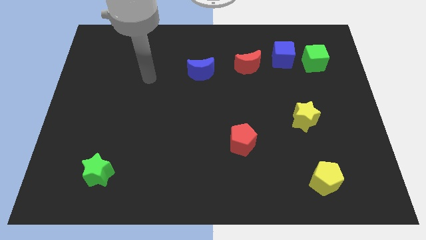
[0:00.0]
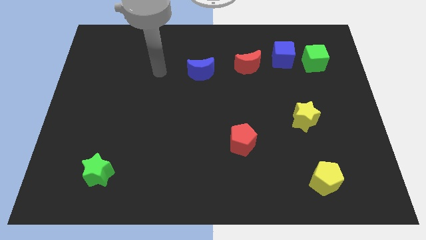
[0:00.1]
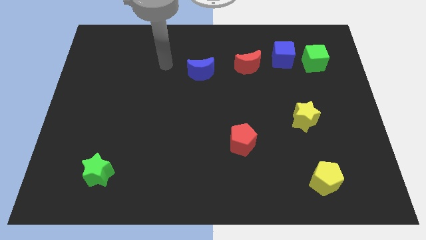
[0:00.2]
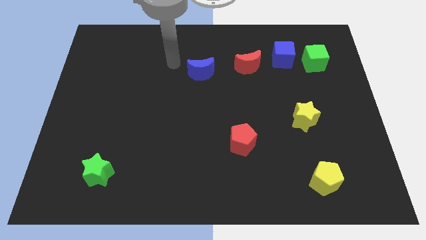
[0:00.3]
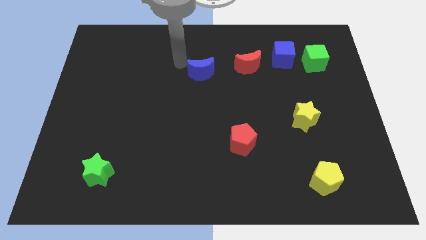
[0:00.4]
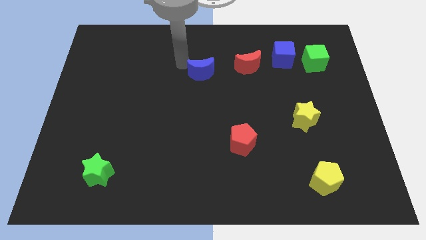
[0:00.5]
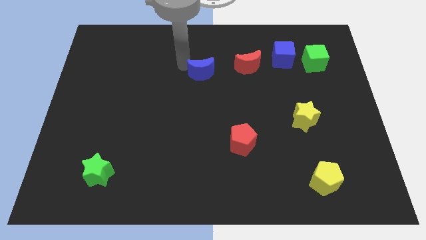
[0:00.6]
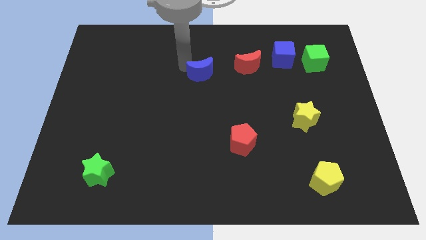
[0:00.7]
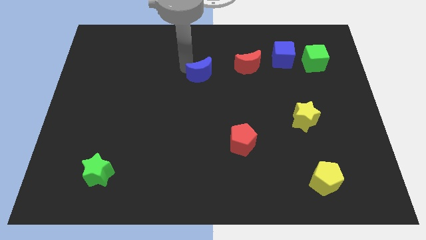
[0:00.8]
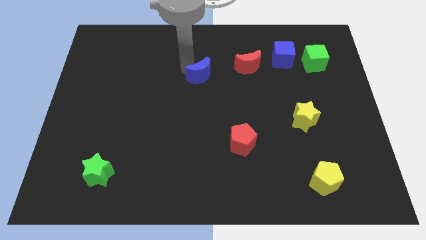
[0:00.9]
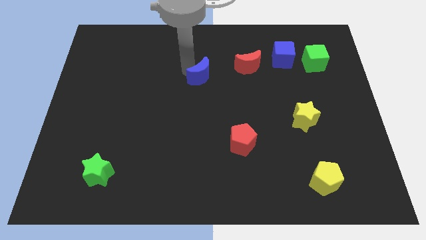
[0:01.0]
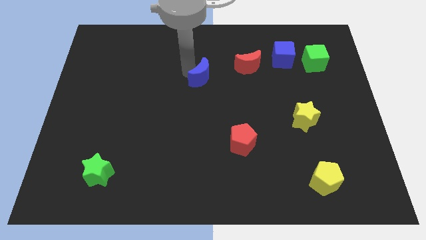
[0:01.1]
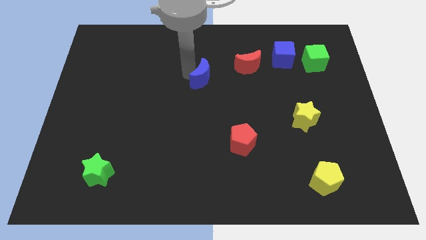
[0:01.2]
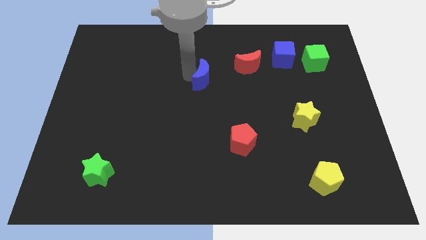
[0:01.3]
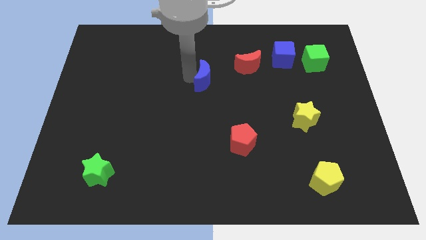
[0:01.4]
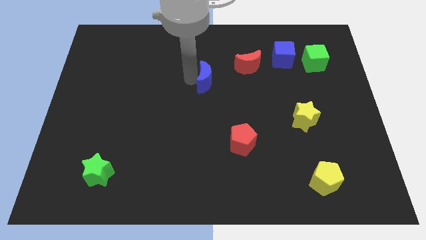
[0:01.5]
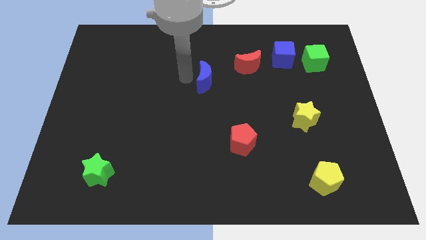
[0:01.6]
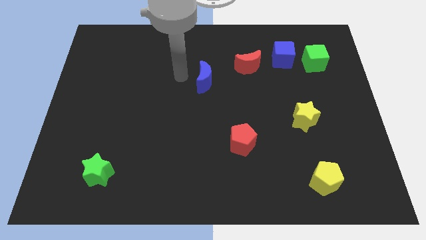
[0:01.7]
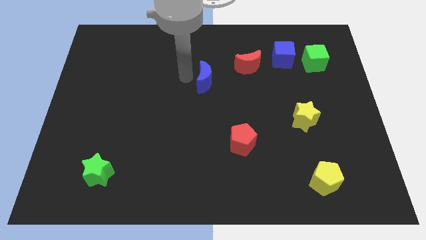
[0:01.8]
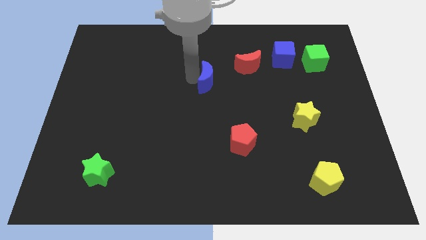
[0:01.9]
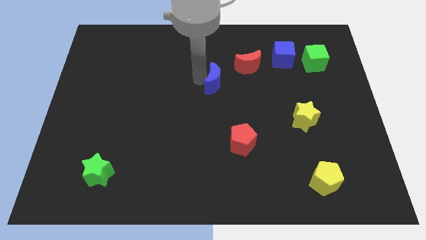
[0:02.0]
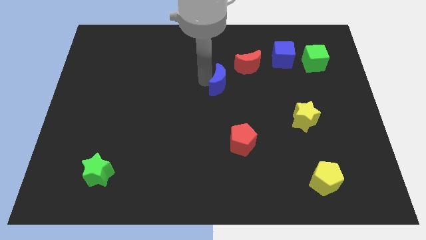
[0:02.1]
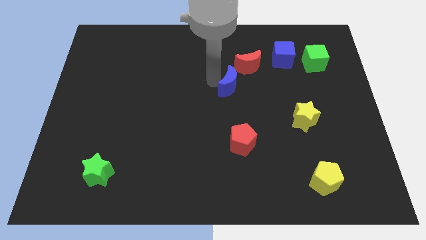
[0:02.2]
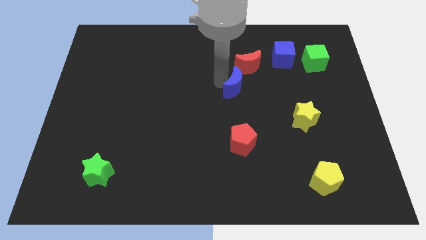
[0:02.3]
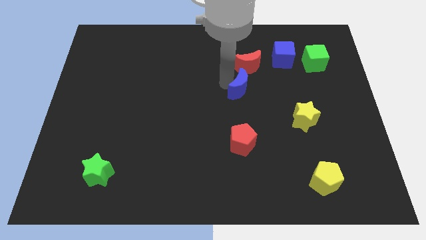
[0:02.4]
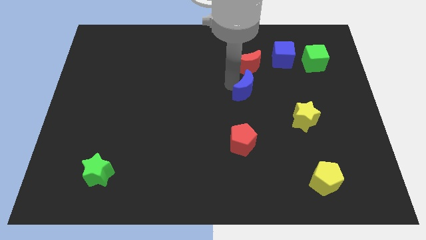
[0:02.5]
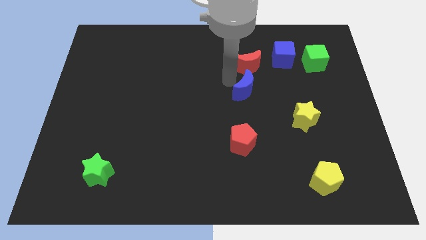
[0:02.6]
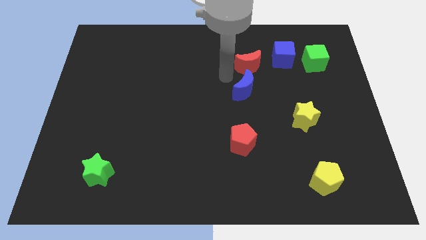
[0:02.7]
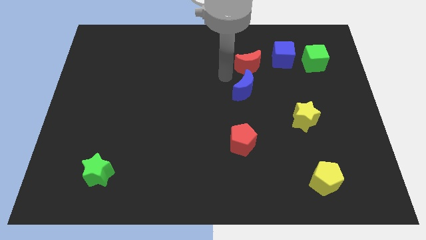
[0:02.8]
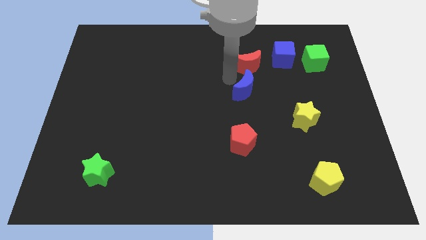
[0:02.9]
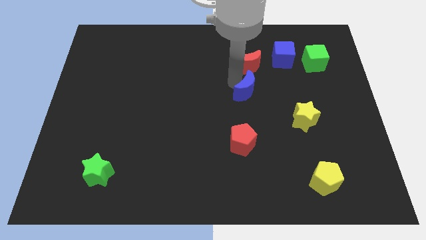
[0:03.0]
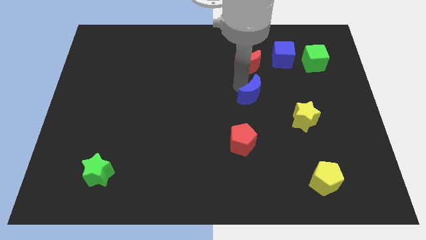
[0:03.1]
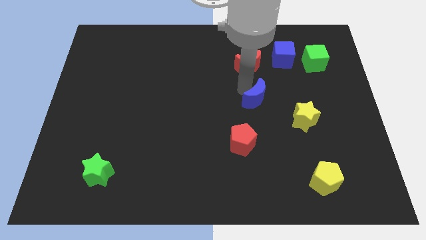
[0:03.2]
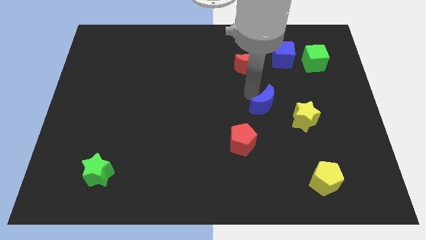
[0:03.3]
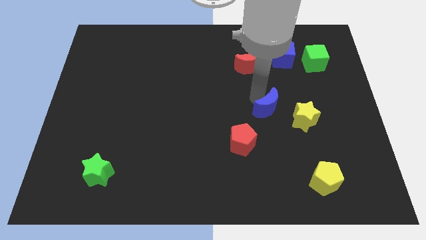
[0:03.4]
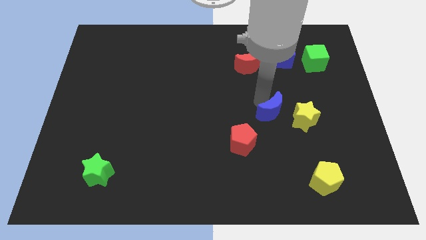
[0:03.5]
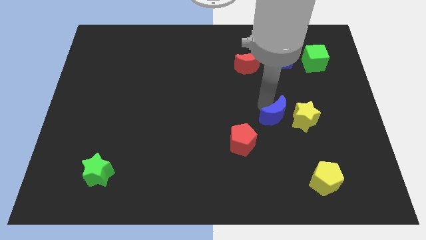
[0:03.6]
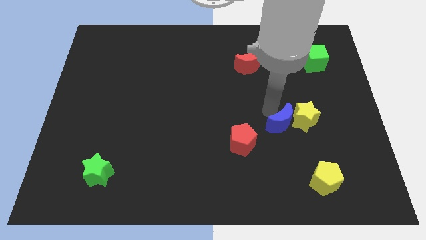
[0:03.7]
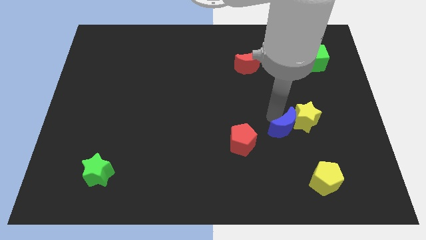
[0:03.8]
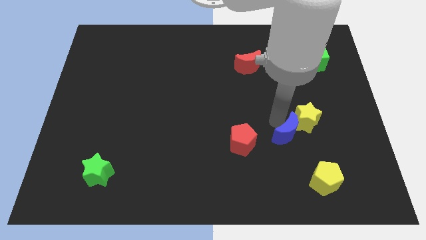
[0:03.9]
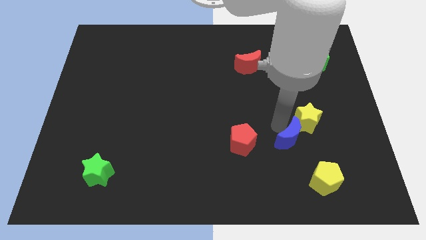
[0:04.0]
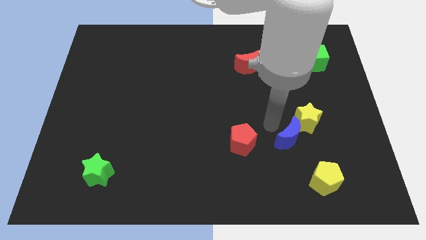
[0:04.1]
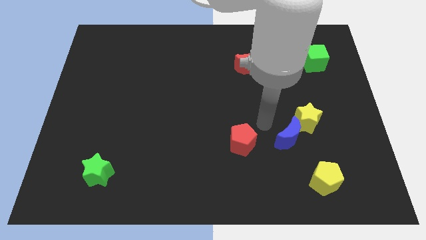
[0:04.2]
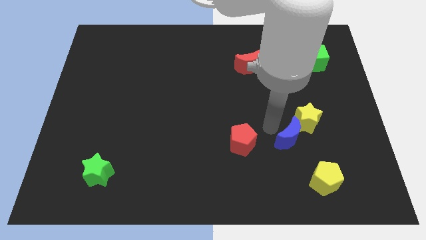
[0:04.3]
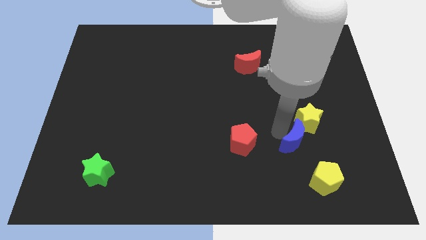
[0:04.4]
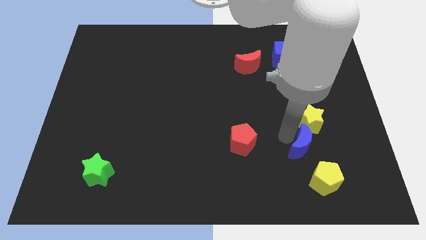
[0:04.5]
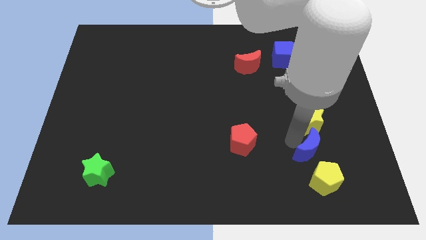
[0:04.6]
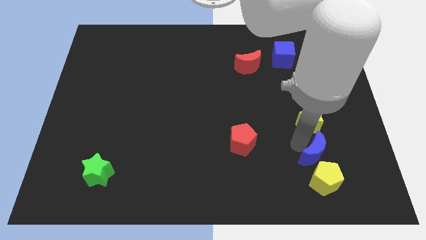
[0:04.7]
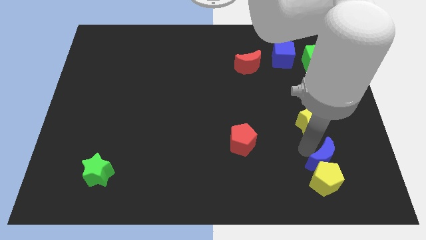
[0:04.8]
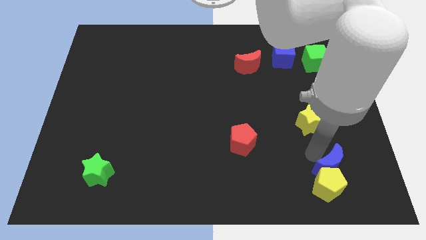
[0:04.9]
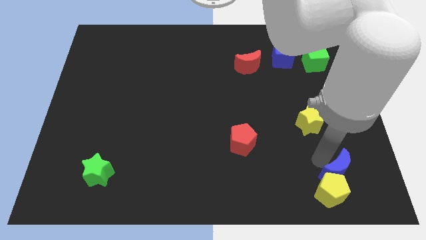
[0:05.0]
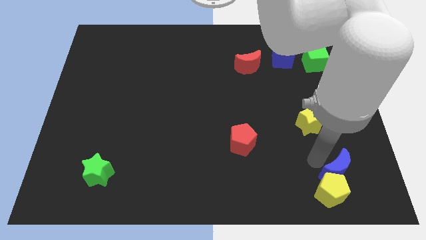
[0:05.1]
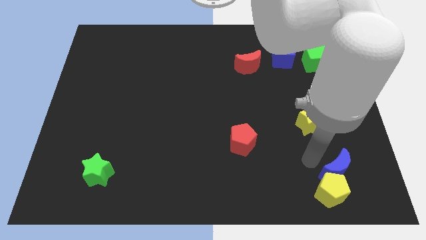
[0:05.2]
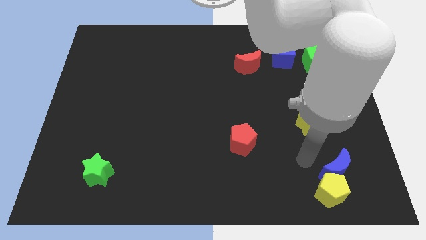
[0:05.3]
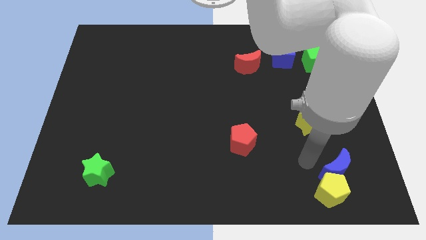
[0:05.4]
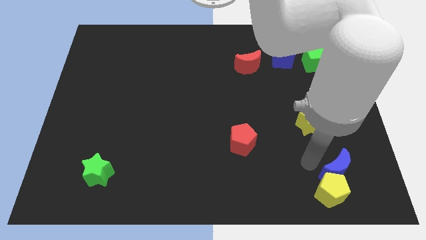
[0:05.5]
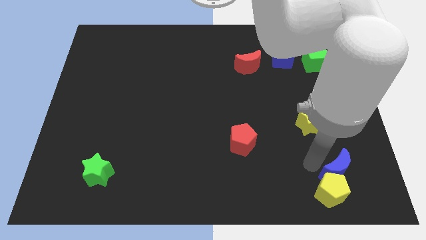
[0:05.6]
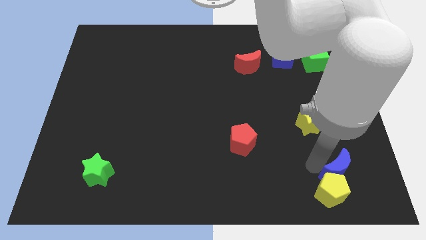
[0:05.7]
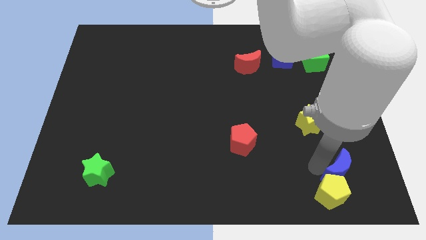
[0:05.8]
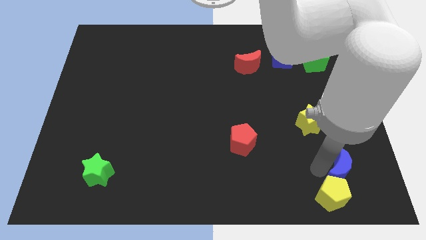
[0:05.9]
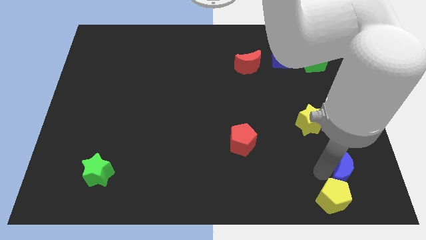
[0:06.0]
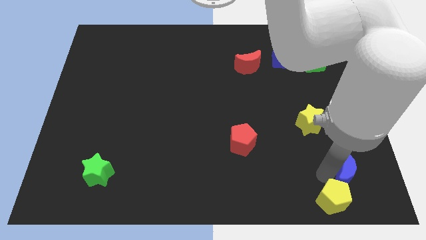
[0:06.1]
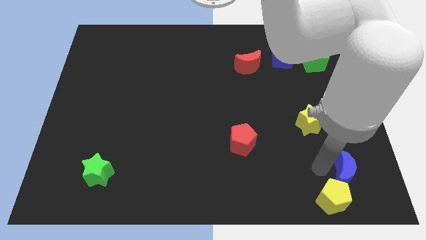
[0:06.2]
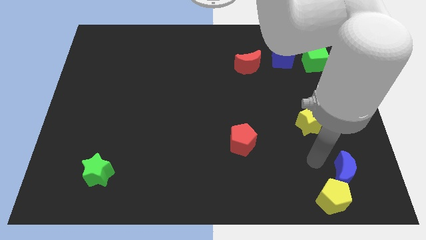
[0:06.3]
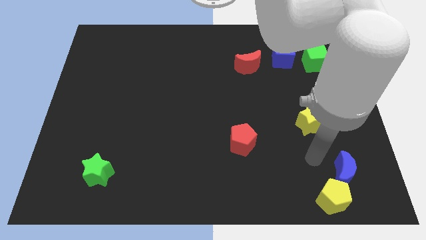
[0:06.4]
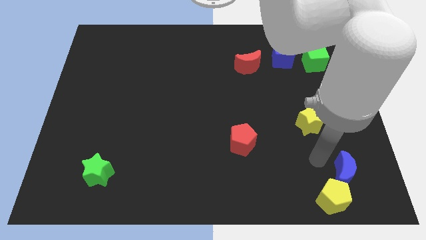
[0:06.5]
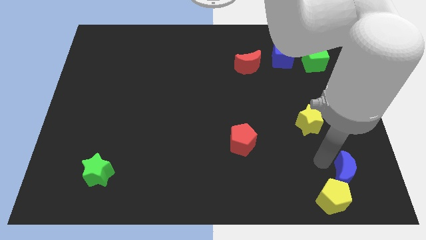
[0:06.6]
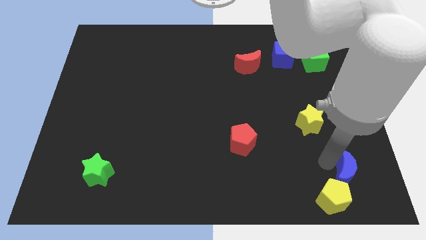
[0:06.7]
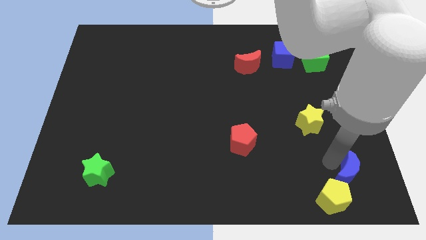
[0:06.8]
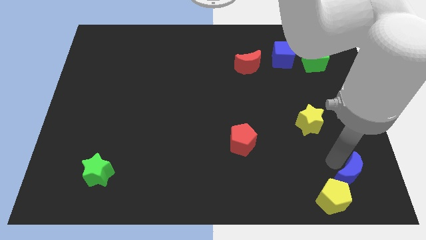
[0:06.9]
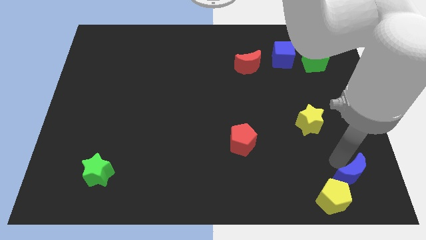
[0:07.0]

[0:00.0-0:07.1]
slide the blue moon to the bottom right
